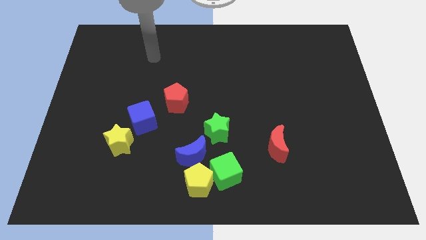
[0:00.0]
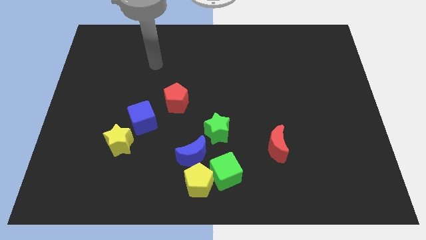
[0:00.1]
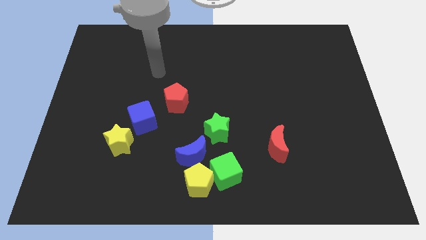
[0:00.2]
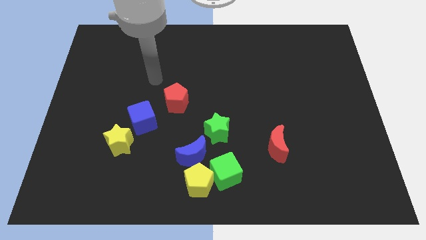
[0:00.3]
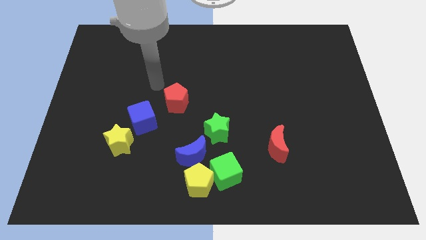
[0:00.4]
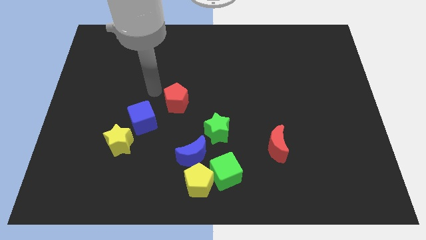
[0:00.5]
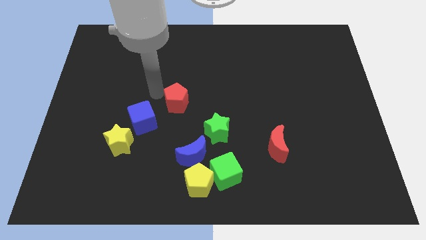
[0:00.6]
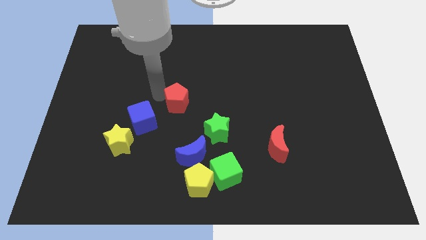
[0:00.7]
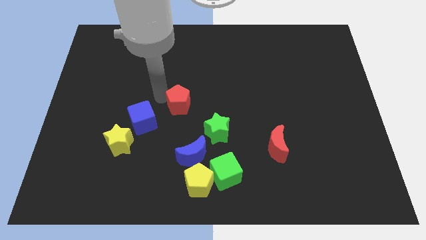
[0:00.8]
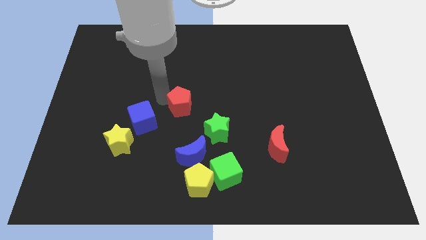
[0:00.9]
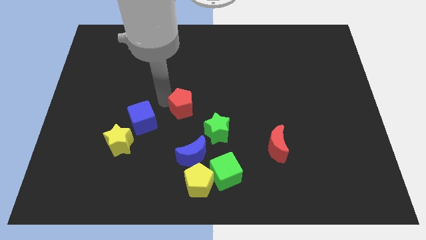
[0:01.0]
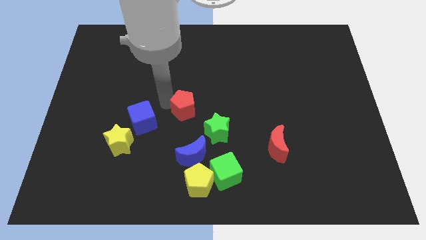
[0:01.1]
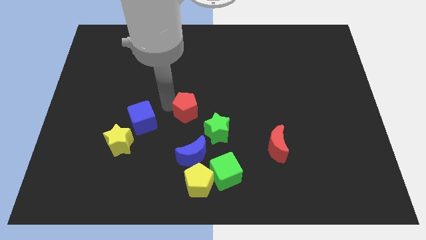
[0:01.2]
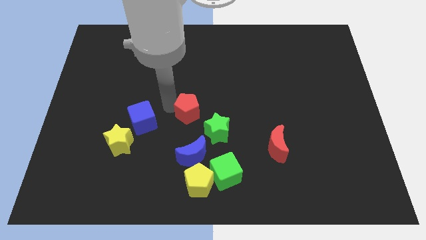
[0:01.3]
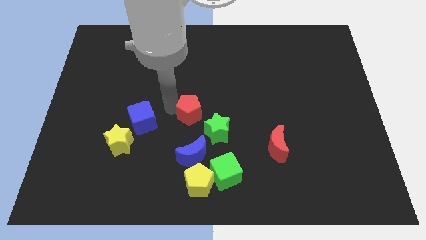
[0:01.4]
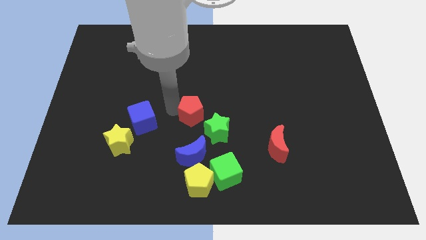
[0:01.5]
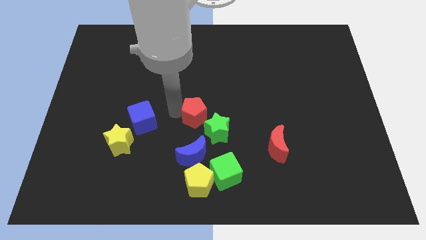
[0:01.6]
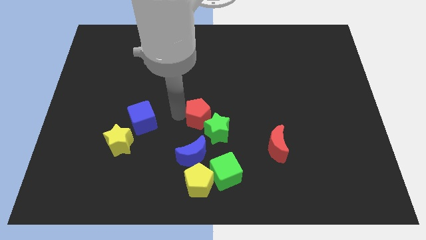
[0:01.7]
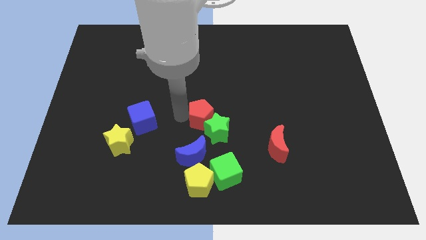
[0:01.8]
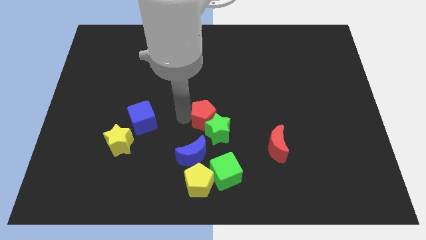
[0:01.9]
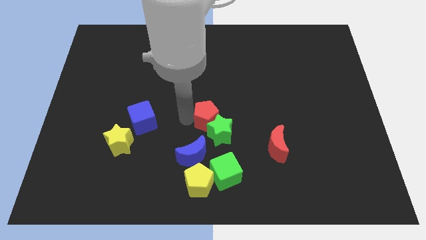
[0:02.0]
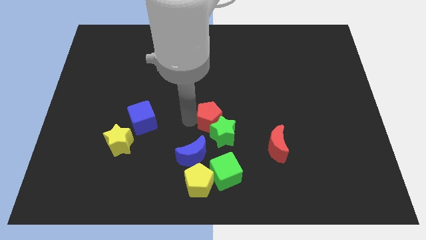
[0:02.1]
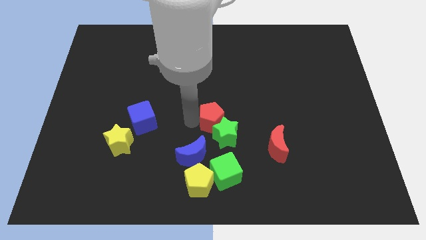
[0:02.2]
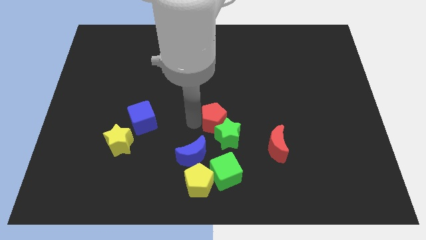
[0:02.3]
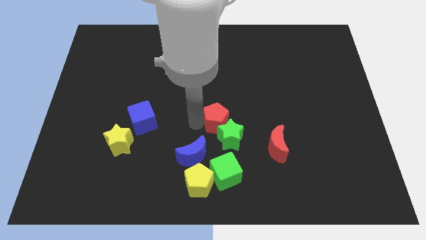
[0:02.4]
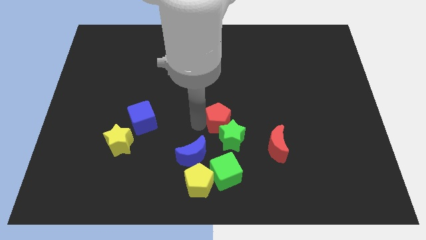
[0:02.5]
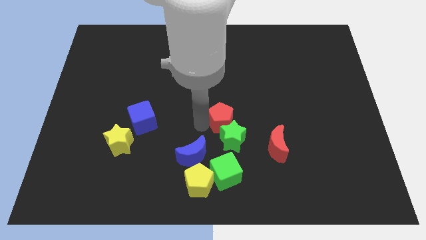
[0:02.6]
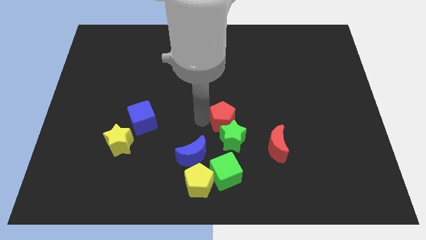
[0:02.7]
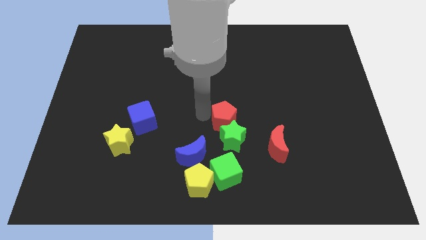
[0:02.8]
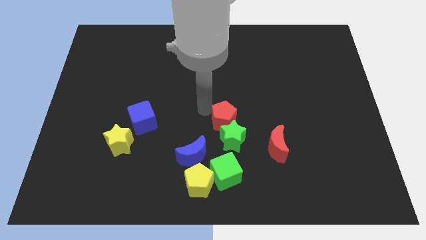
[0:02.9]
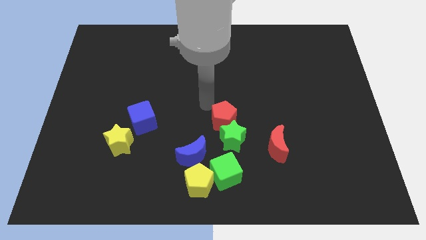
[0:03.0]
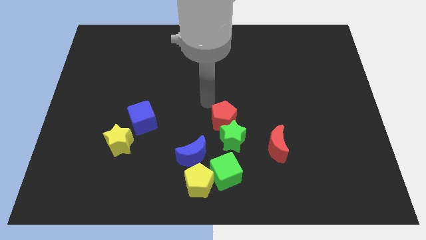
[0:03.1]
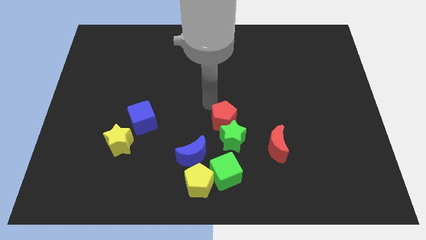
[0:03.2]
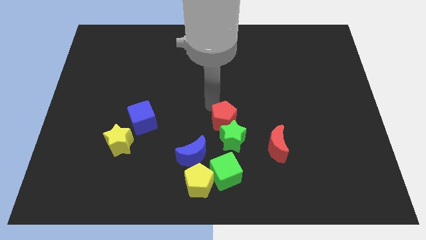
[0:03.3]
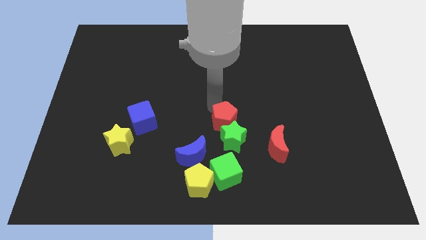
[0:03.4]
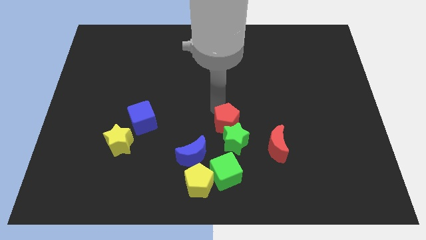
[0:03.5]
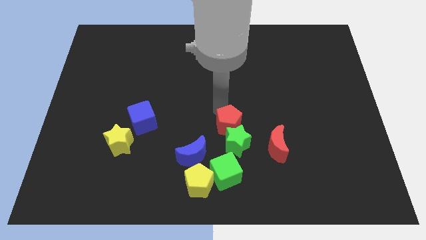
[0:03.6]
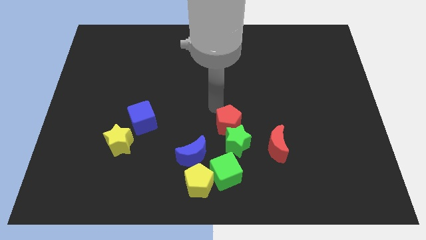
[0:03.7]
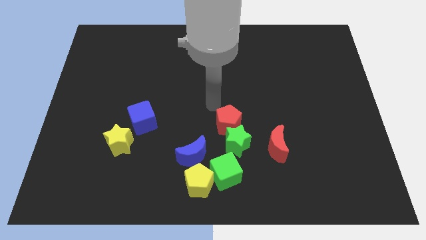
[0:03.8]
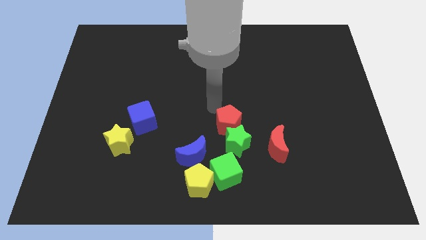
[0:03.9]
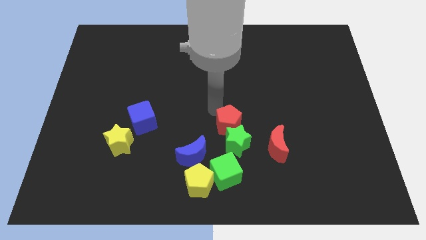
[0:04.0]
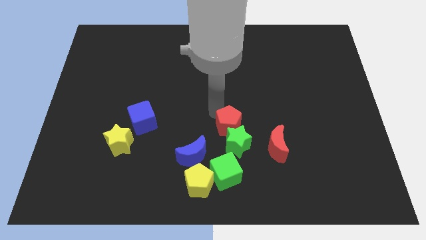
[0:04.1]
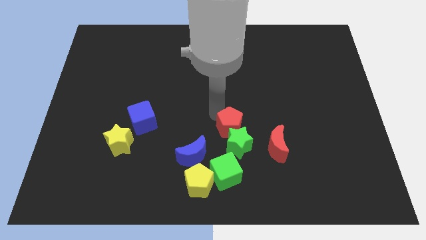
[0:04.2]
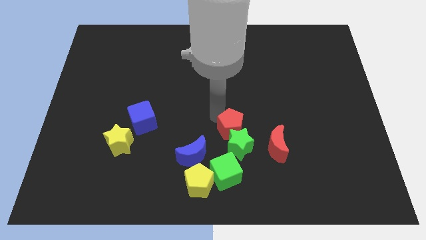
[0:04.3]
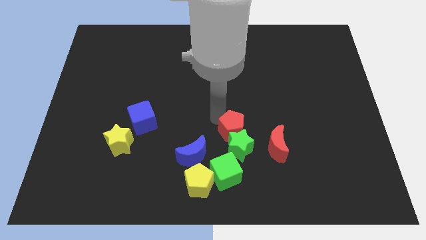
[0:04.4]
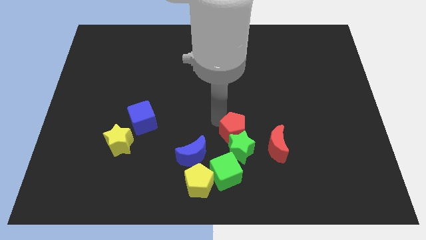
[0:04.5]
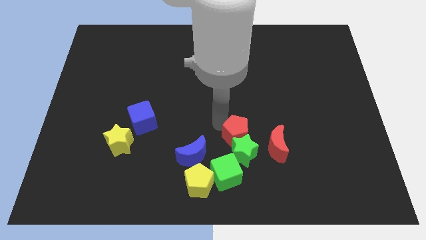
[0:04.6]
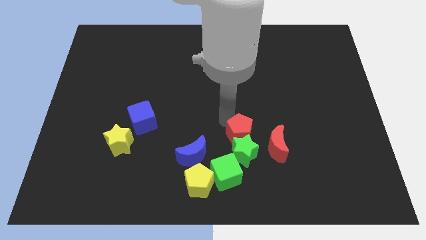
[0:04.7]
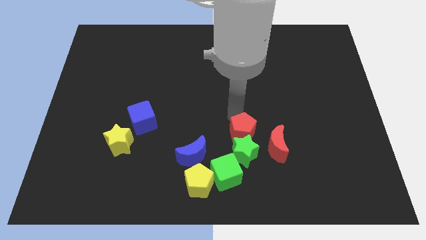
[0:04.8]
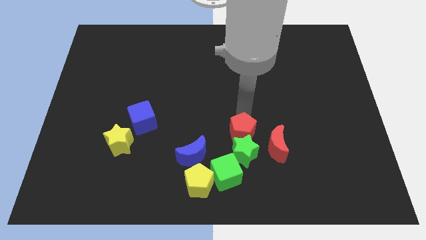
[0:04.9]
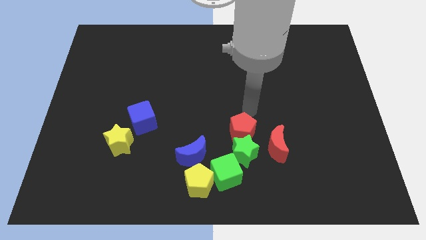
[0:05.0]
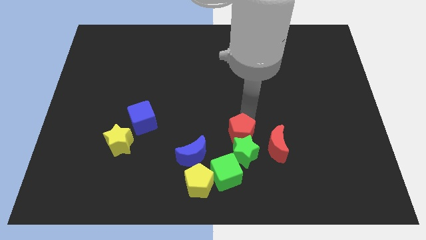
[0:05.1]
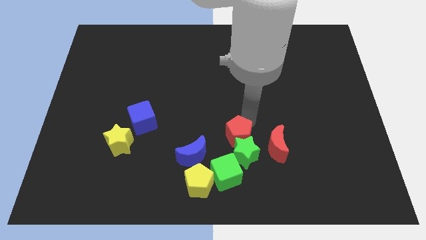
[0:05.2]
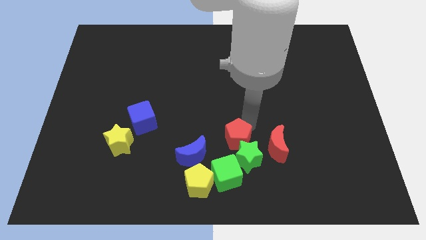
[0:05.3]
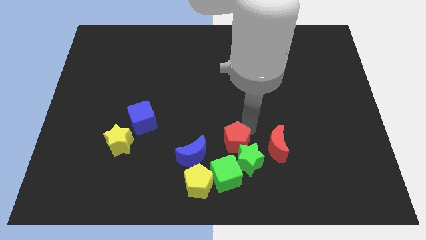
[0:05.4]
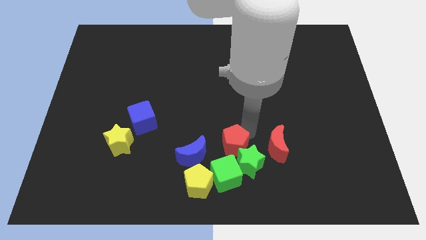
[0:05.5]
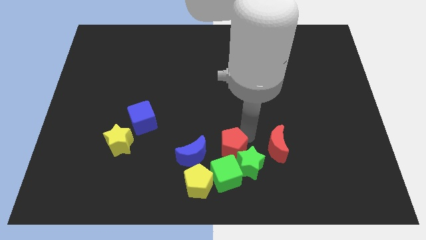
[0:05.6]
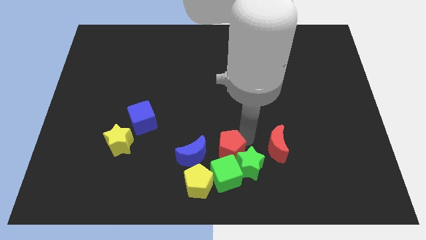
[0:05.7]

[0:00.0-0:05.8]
slide the red pentagon to the green cube

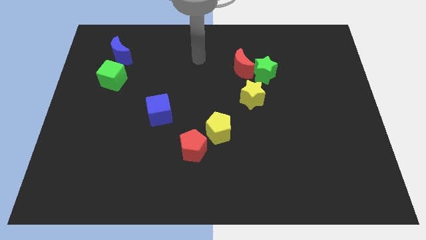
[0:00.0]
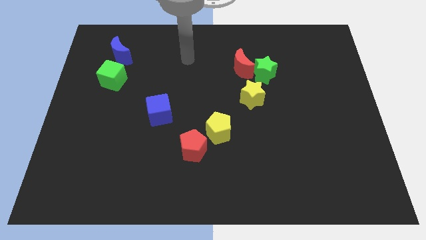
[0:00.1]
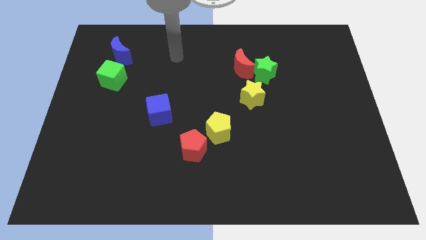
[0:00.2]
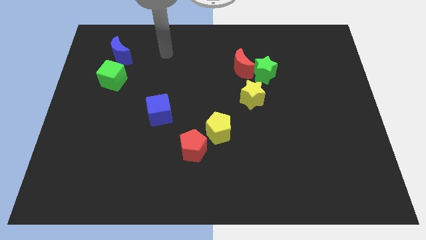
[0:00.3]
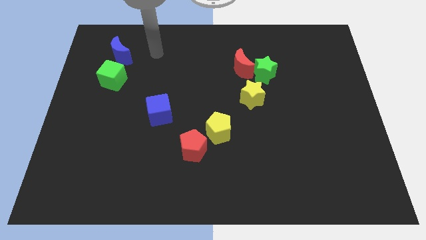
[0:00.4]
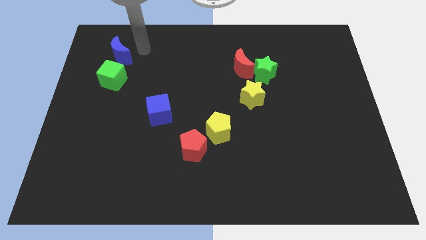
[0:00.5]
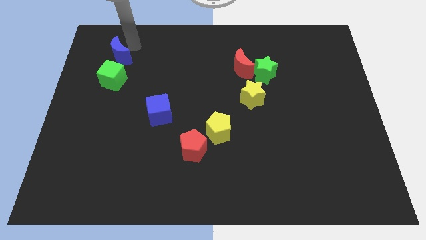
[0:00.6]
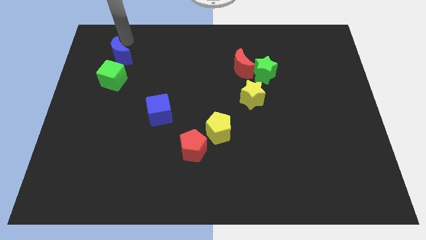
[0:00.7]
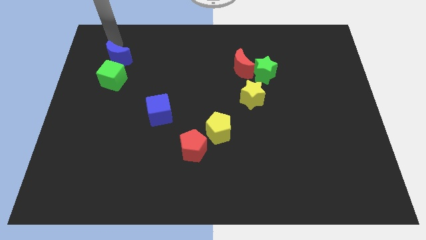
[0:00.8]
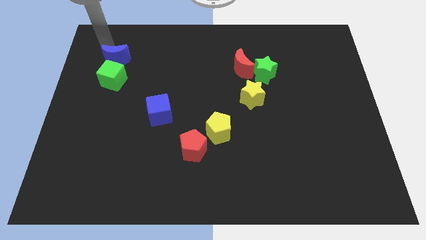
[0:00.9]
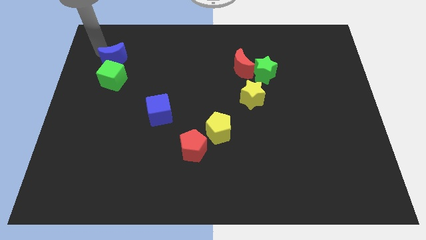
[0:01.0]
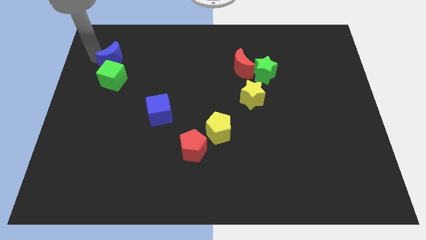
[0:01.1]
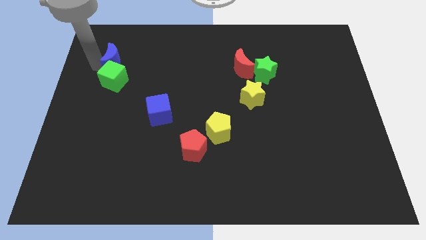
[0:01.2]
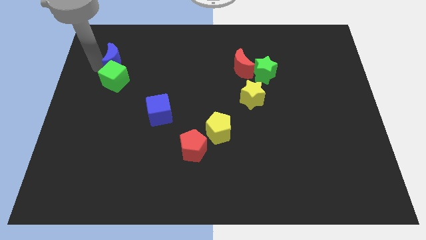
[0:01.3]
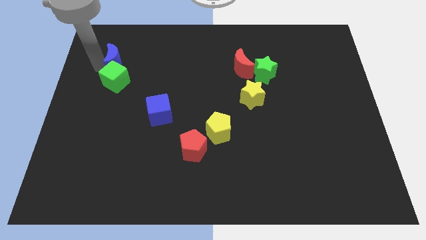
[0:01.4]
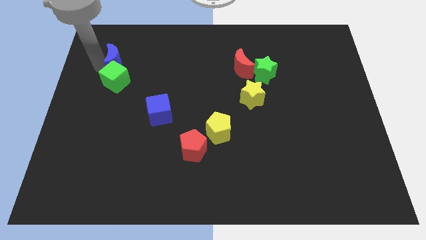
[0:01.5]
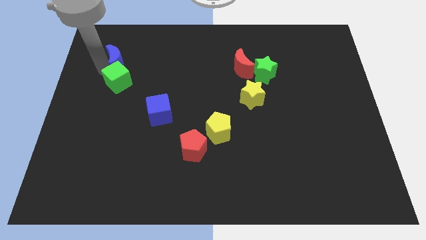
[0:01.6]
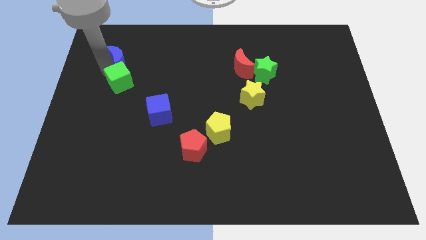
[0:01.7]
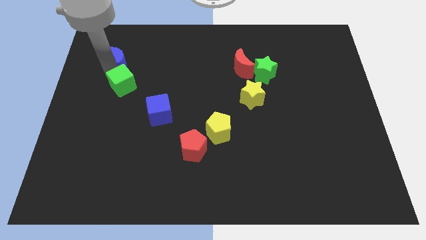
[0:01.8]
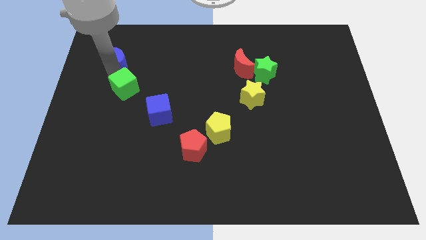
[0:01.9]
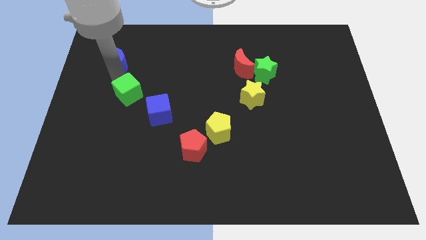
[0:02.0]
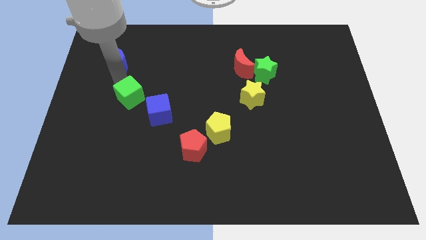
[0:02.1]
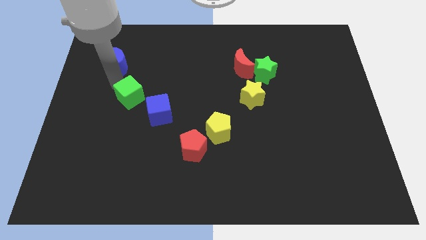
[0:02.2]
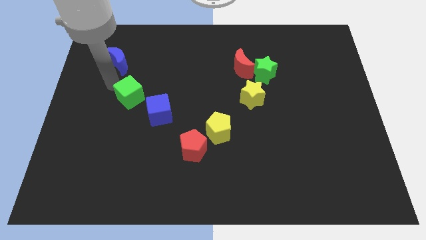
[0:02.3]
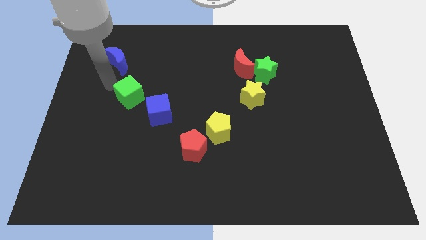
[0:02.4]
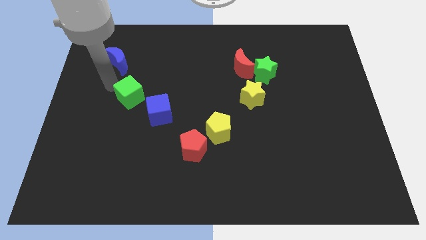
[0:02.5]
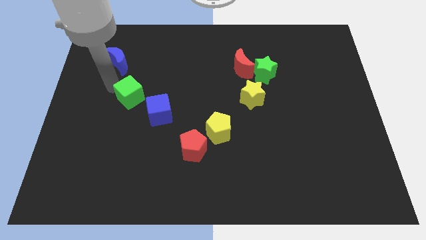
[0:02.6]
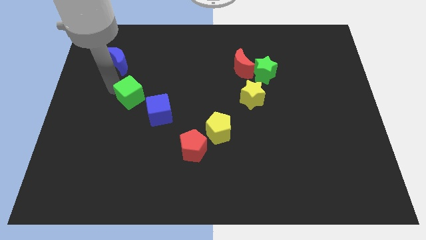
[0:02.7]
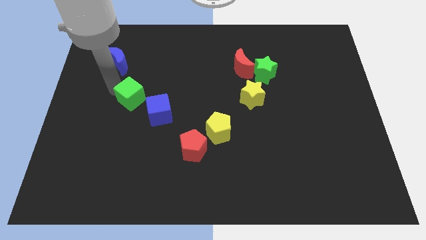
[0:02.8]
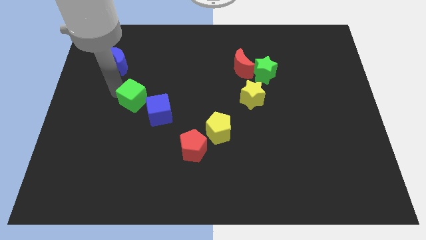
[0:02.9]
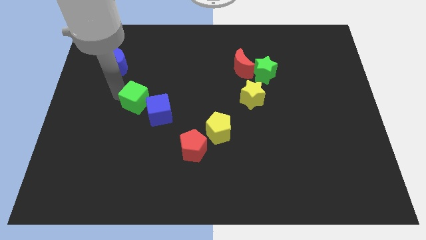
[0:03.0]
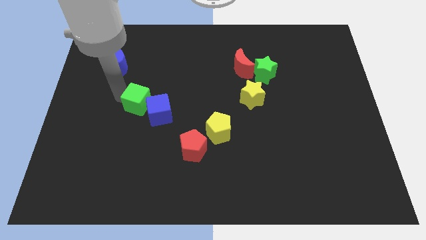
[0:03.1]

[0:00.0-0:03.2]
put the green cube next to the blue cube
